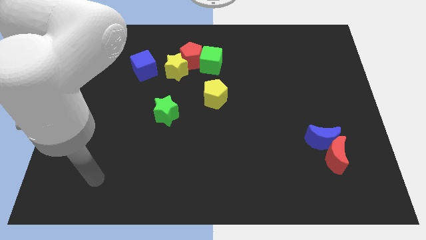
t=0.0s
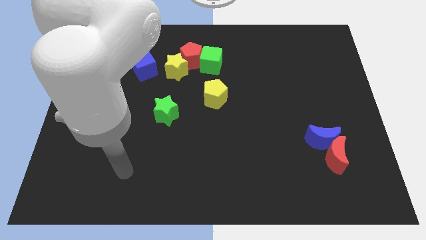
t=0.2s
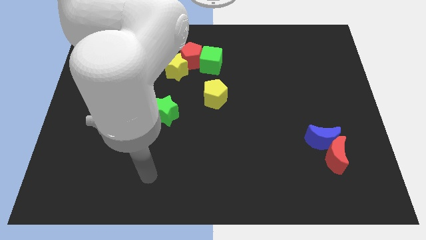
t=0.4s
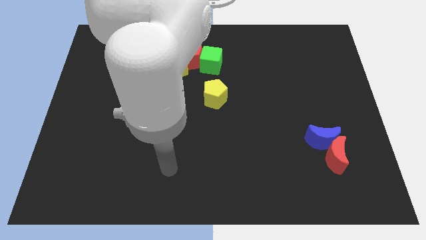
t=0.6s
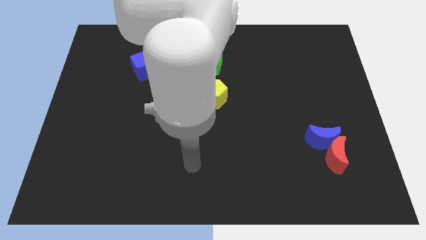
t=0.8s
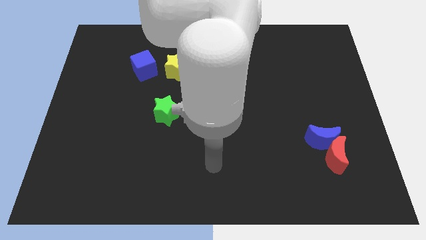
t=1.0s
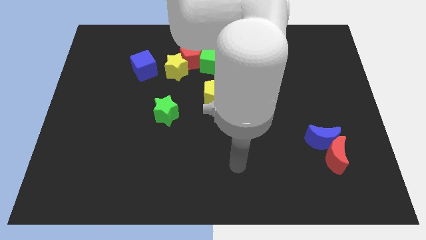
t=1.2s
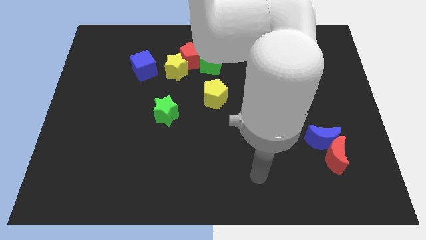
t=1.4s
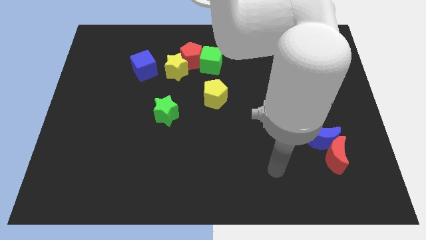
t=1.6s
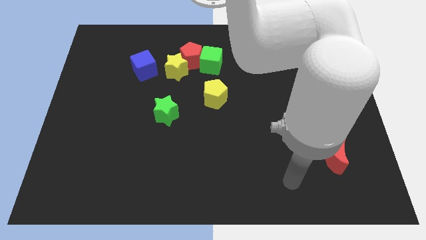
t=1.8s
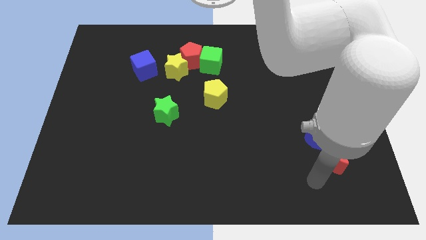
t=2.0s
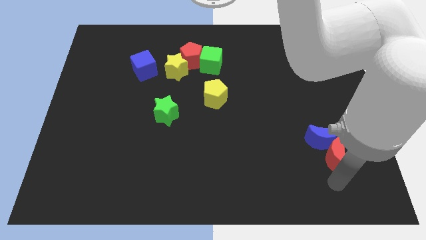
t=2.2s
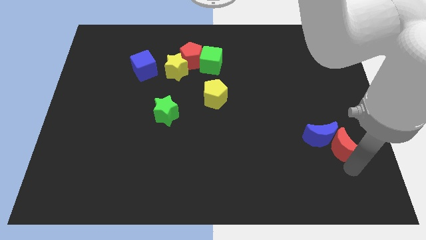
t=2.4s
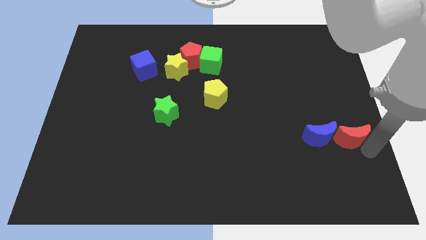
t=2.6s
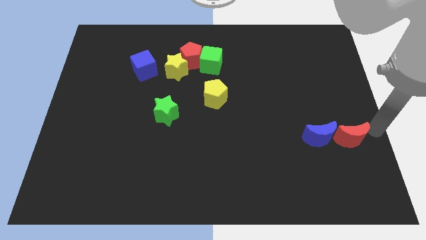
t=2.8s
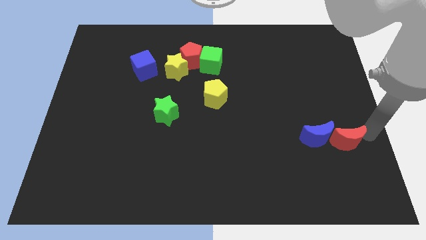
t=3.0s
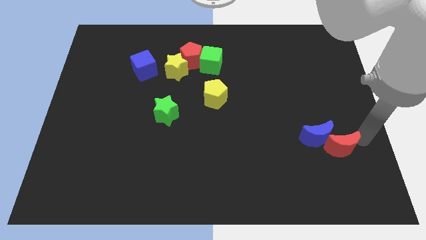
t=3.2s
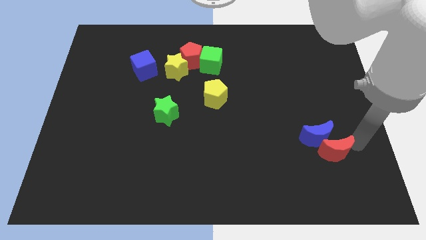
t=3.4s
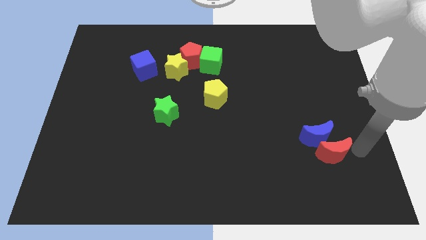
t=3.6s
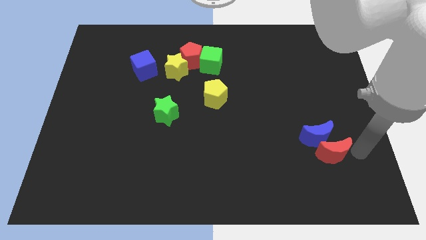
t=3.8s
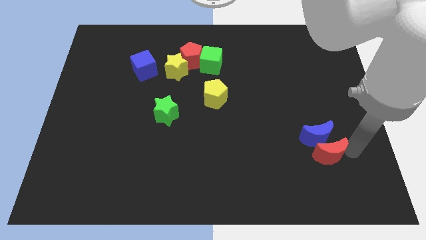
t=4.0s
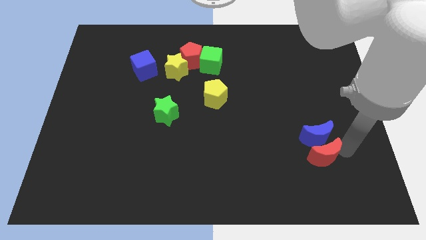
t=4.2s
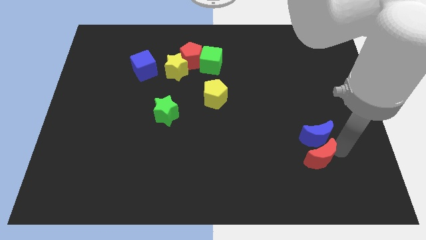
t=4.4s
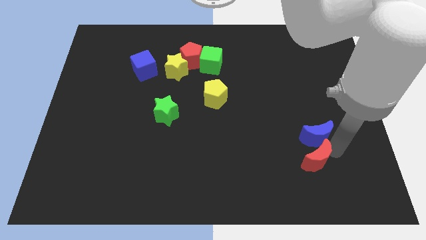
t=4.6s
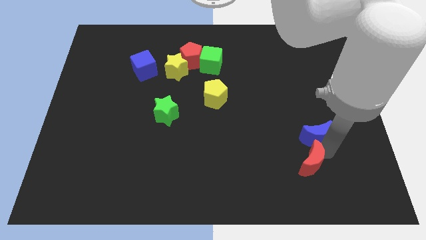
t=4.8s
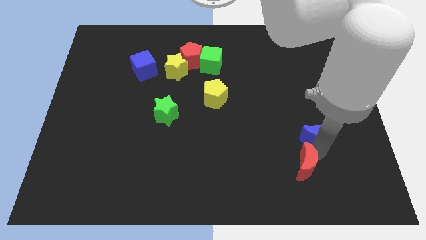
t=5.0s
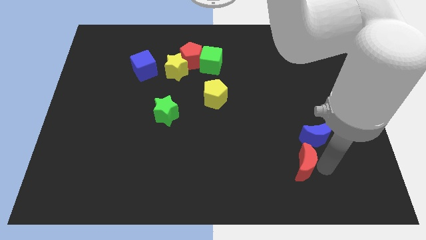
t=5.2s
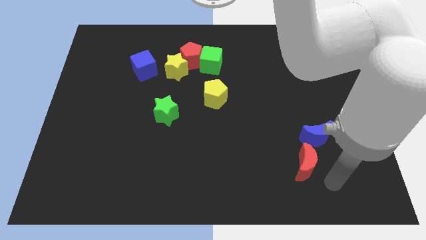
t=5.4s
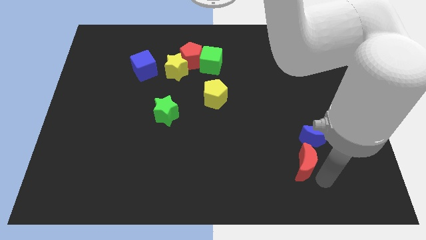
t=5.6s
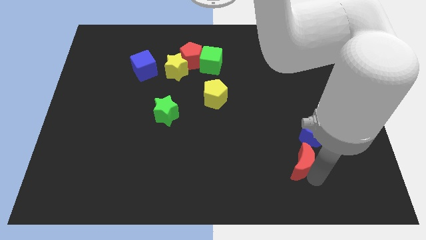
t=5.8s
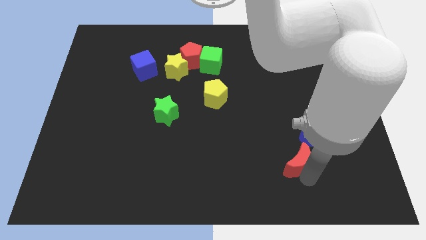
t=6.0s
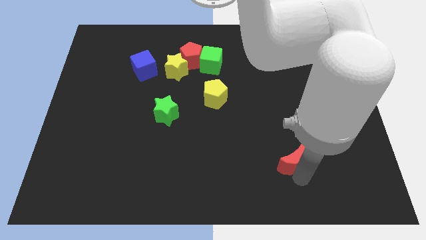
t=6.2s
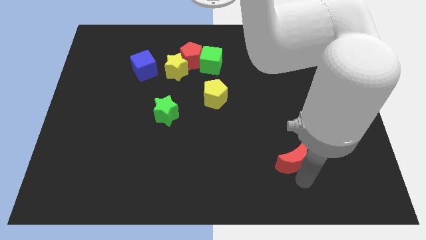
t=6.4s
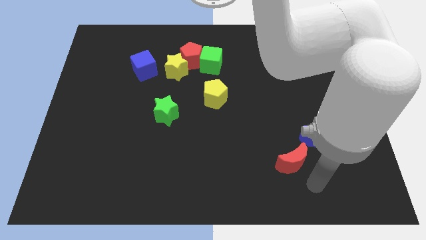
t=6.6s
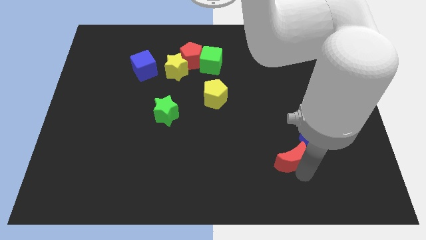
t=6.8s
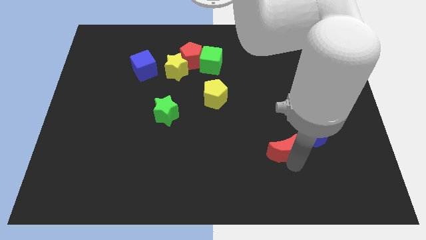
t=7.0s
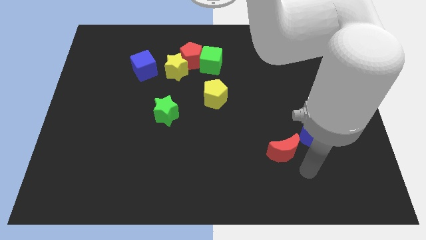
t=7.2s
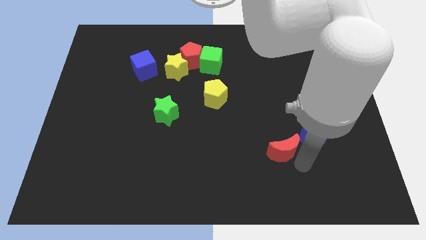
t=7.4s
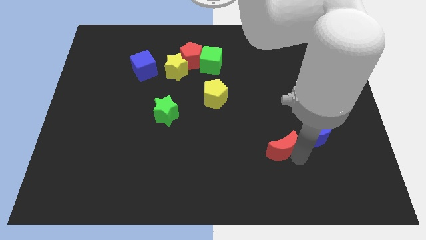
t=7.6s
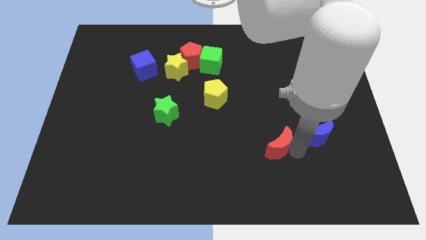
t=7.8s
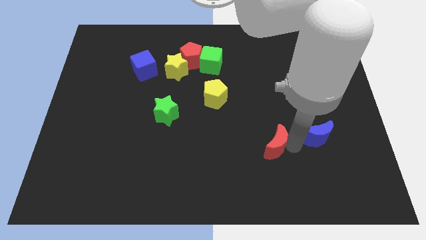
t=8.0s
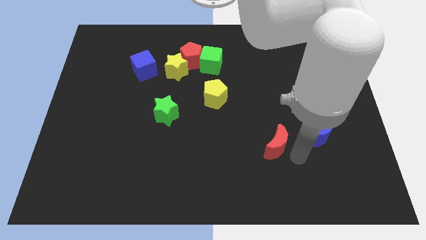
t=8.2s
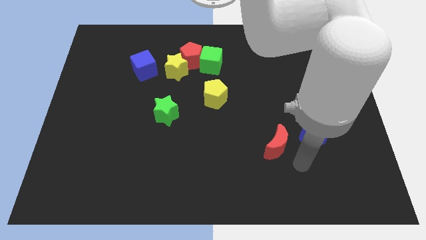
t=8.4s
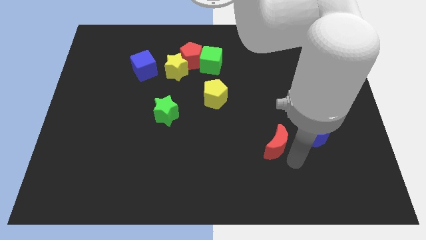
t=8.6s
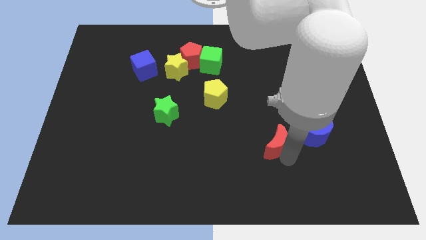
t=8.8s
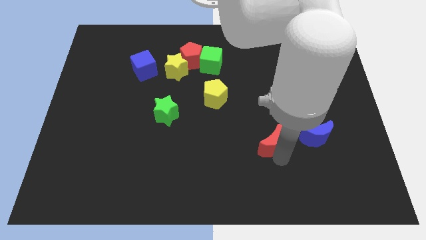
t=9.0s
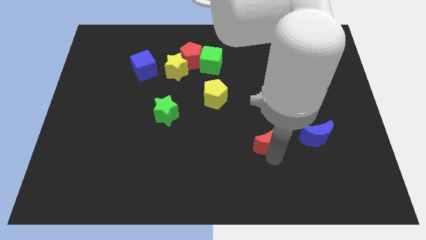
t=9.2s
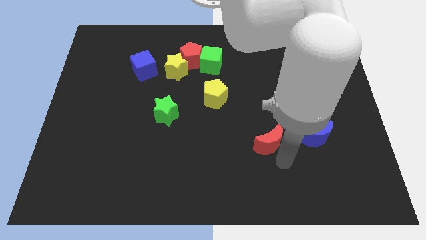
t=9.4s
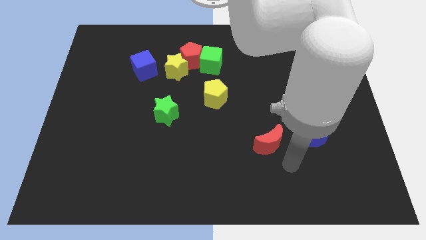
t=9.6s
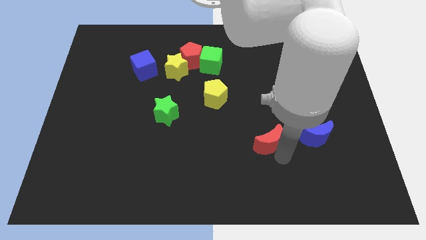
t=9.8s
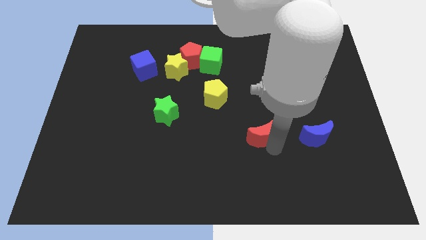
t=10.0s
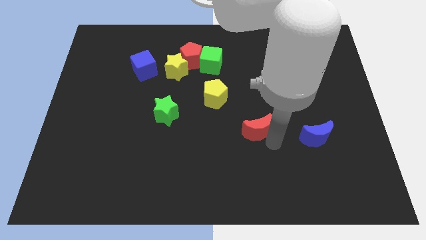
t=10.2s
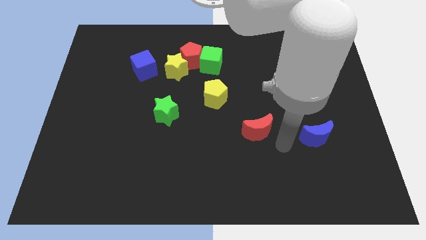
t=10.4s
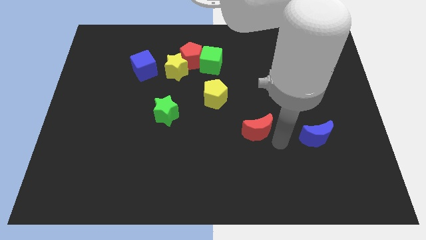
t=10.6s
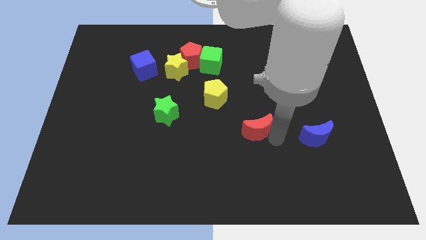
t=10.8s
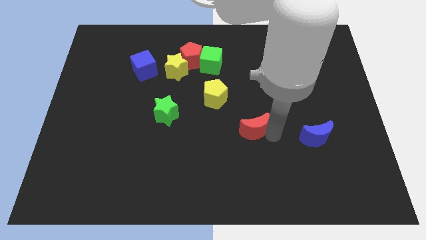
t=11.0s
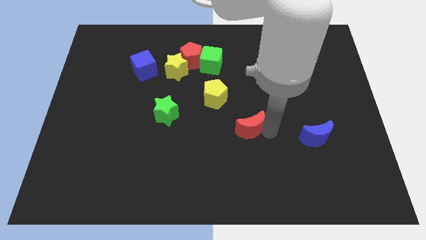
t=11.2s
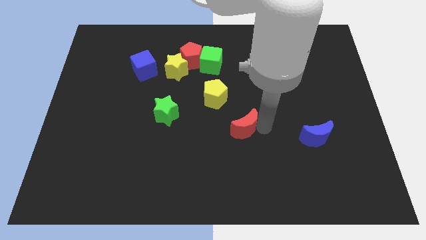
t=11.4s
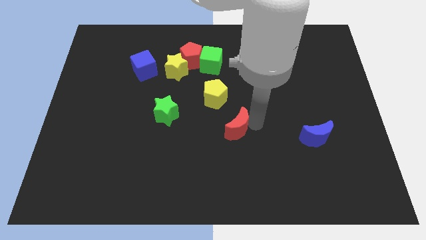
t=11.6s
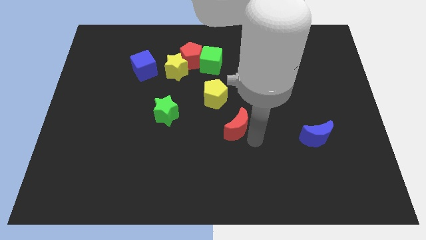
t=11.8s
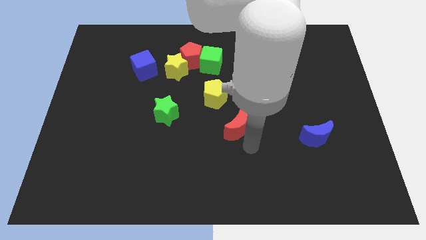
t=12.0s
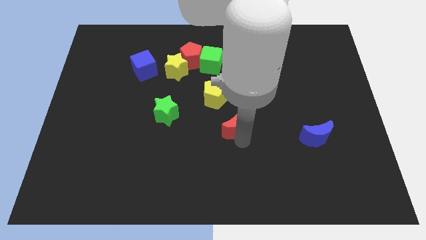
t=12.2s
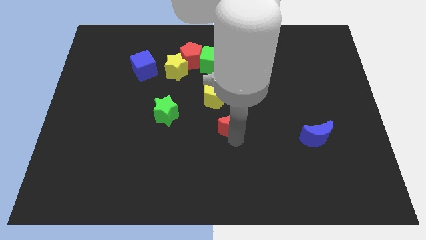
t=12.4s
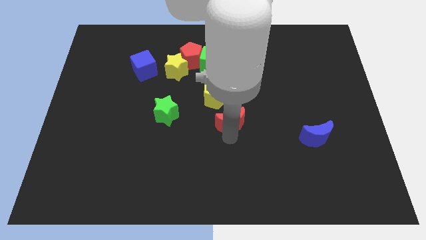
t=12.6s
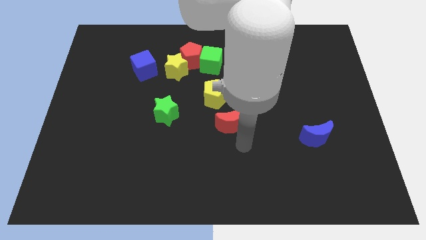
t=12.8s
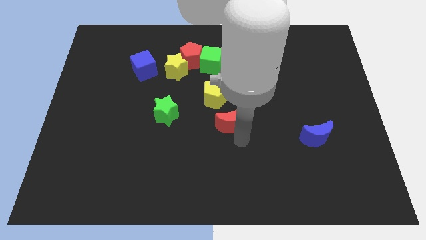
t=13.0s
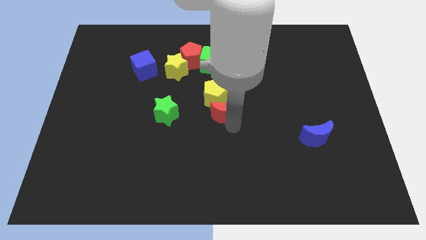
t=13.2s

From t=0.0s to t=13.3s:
put the red moon towards the yellow pentagon
